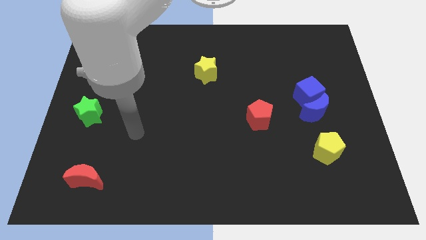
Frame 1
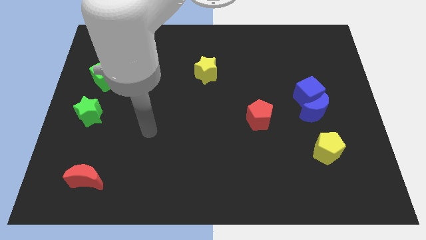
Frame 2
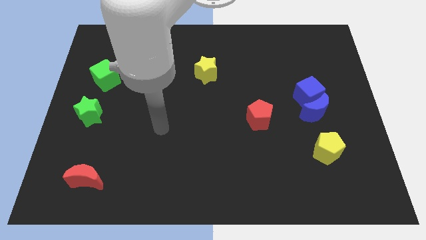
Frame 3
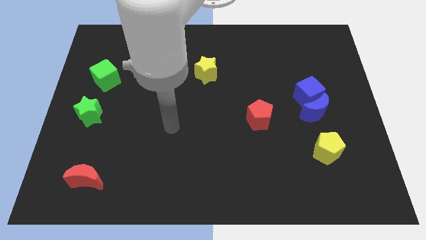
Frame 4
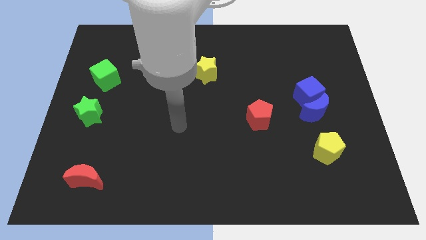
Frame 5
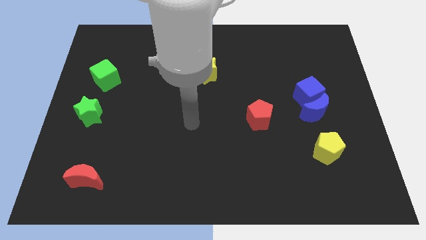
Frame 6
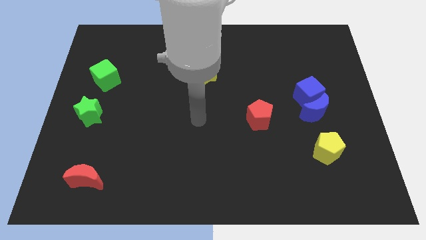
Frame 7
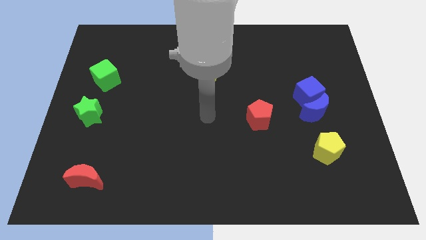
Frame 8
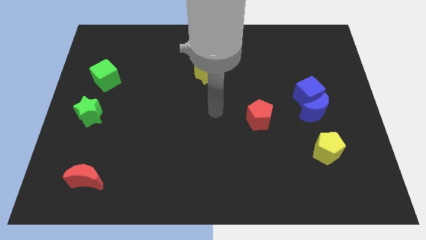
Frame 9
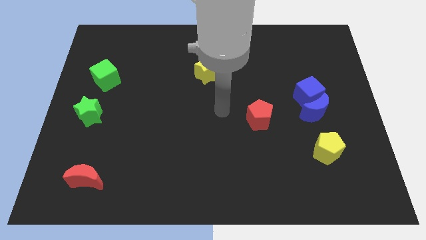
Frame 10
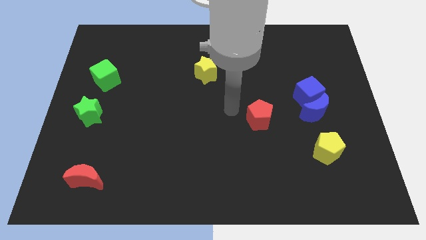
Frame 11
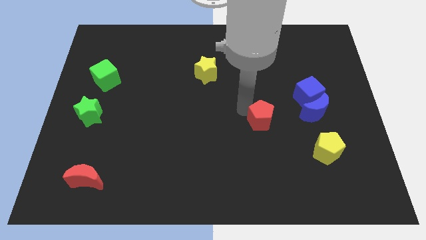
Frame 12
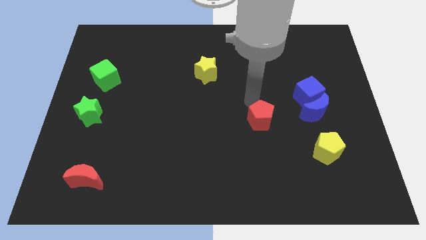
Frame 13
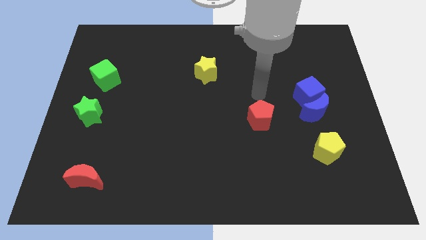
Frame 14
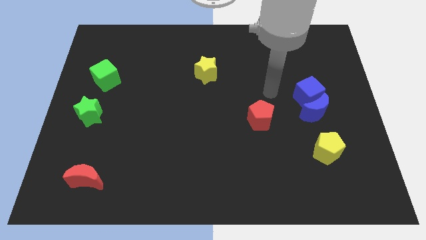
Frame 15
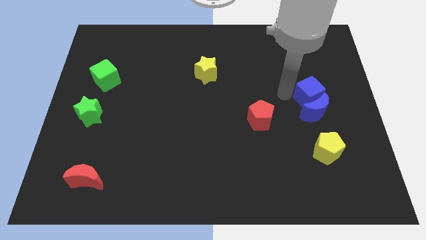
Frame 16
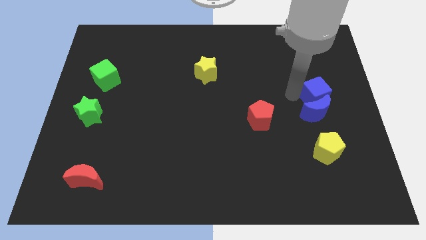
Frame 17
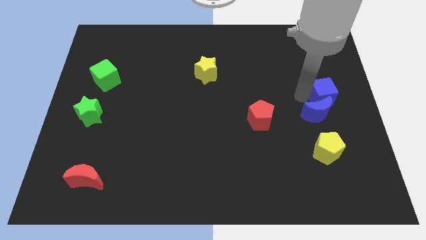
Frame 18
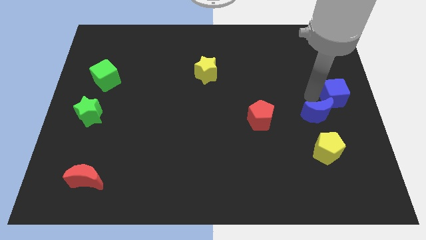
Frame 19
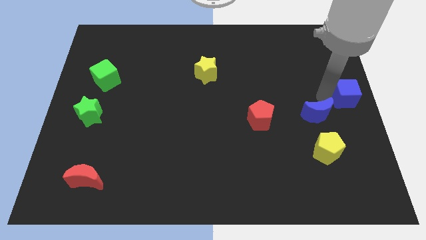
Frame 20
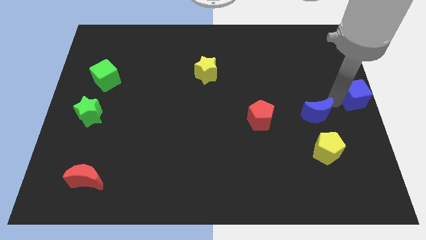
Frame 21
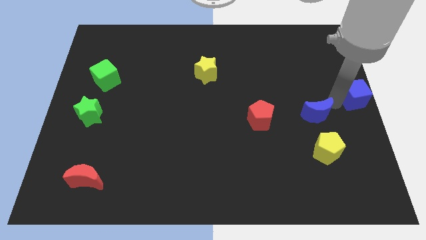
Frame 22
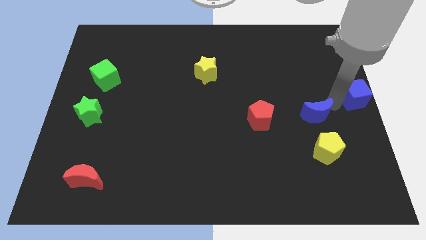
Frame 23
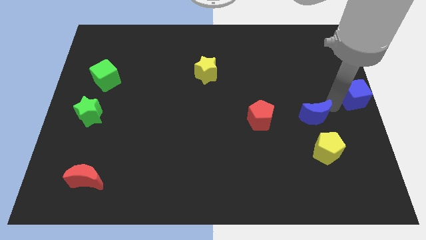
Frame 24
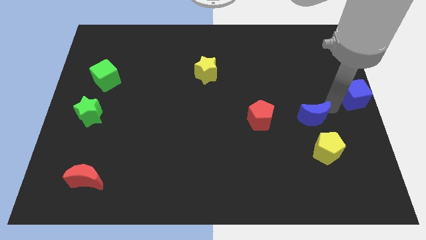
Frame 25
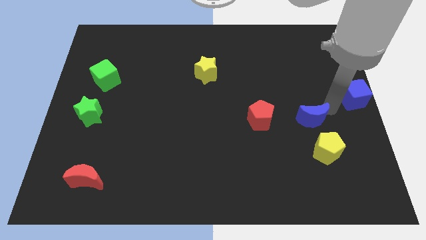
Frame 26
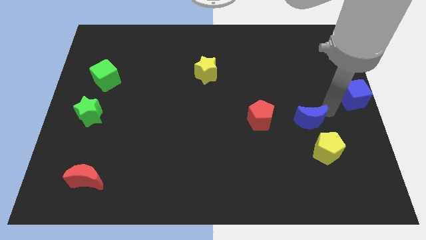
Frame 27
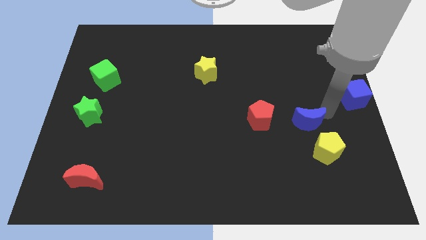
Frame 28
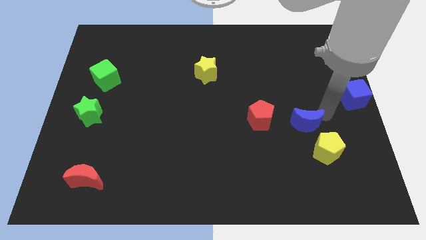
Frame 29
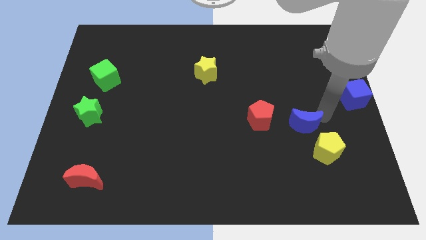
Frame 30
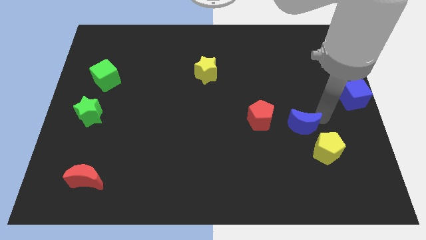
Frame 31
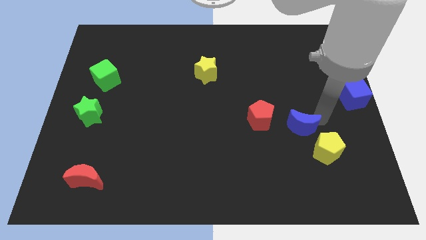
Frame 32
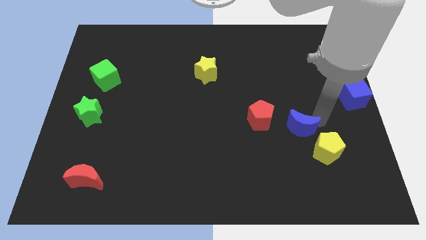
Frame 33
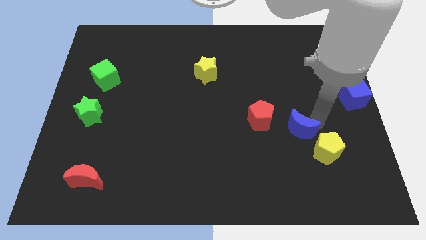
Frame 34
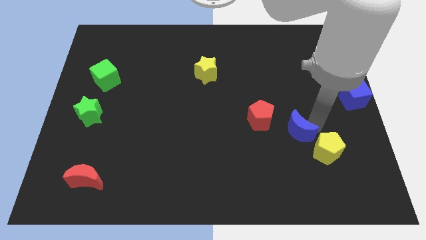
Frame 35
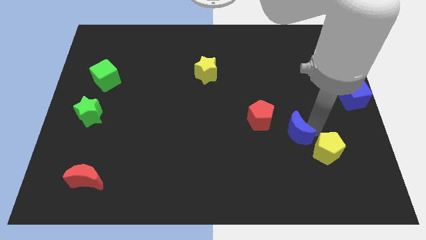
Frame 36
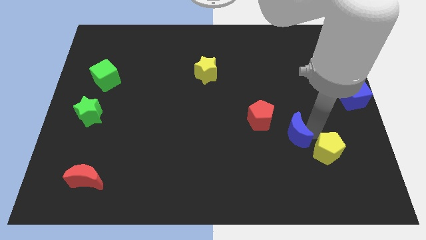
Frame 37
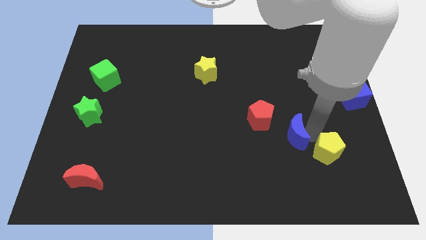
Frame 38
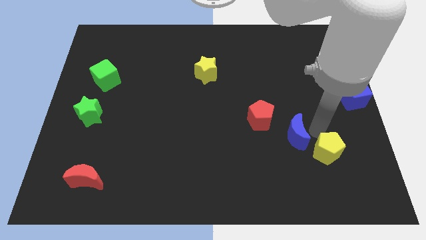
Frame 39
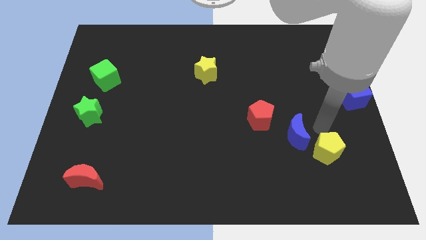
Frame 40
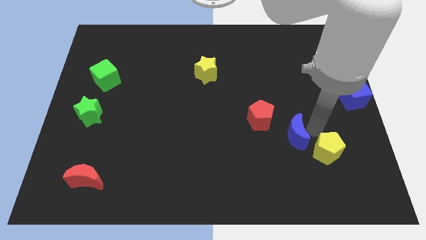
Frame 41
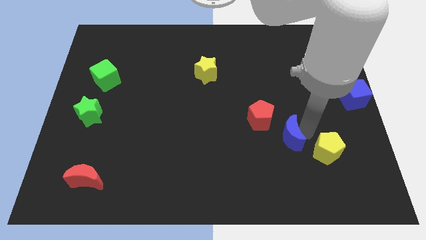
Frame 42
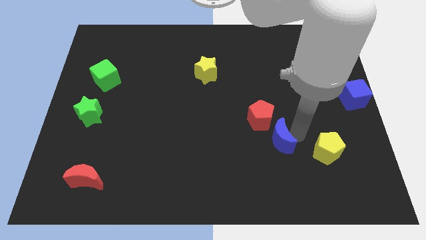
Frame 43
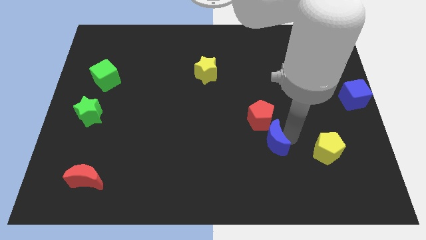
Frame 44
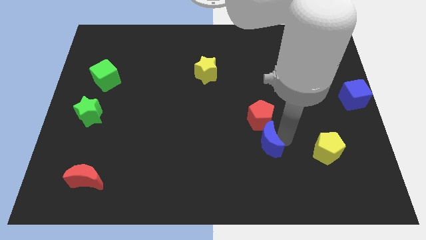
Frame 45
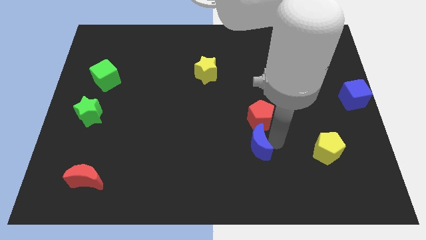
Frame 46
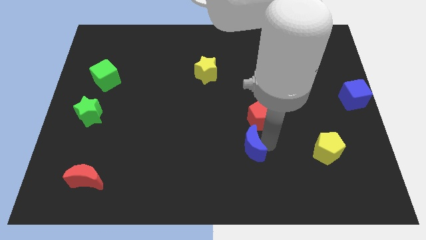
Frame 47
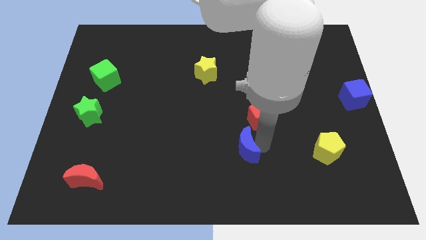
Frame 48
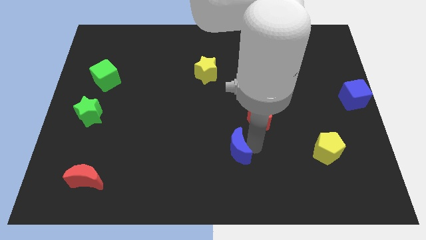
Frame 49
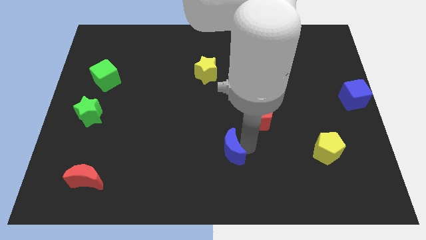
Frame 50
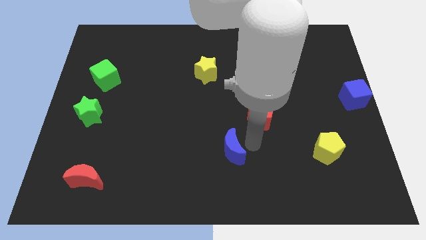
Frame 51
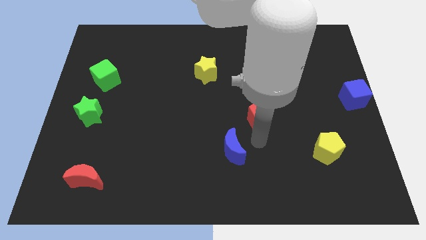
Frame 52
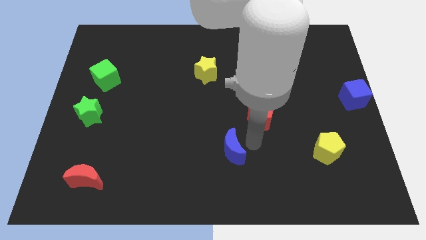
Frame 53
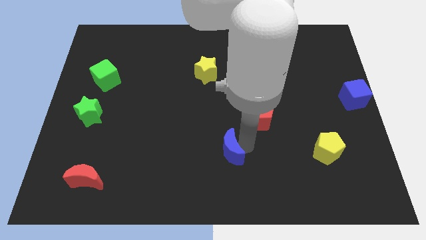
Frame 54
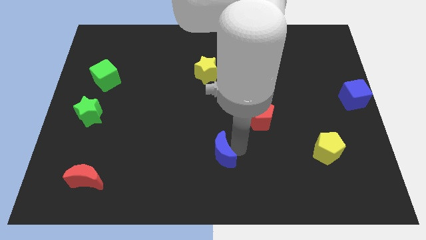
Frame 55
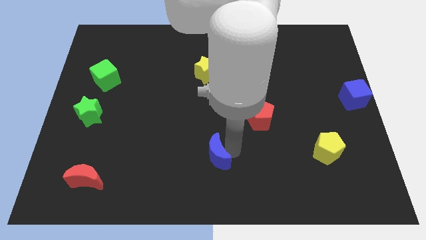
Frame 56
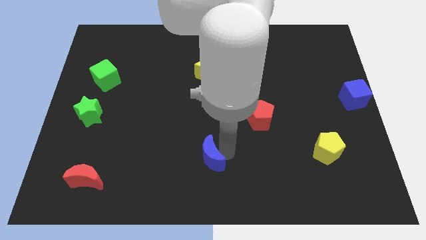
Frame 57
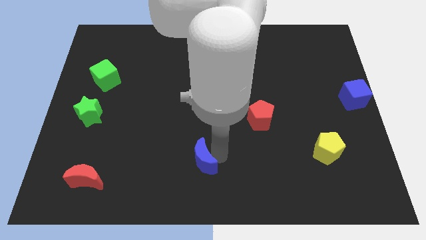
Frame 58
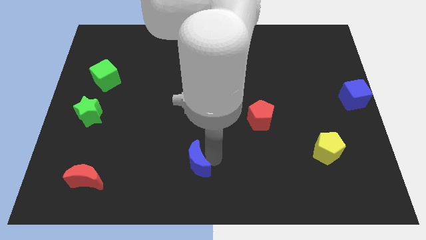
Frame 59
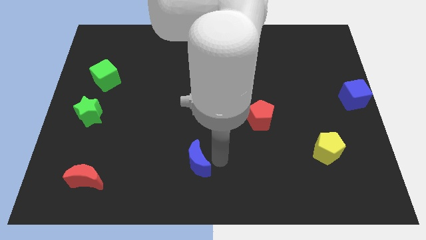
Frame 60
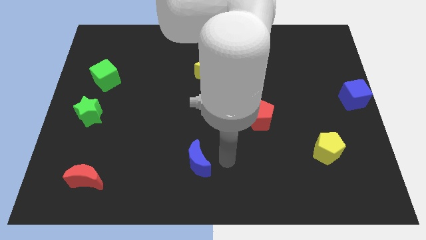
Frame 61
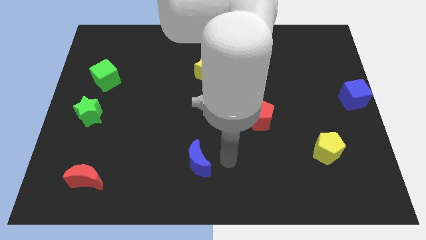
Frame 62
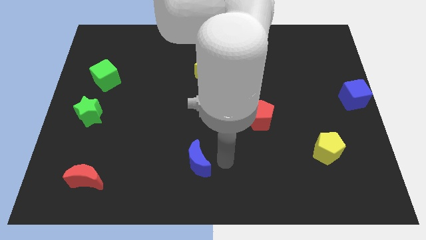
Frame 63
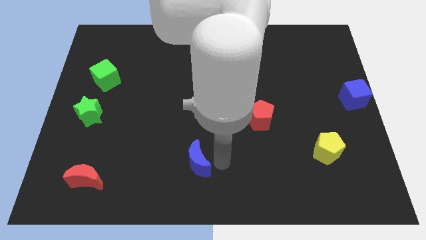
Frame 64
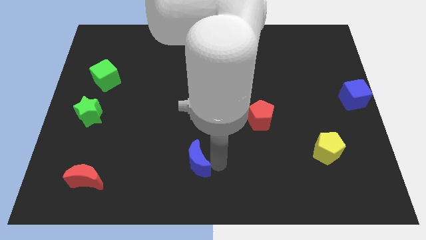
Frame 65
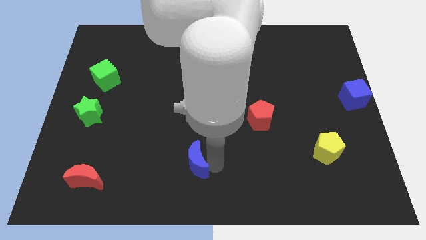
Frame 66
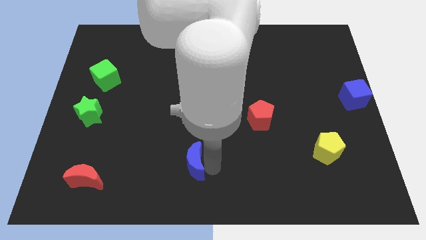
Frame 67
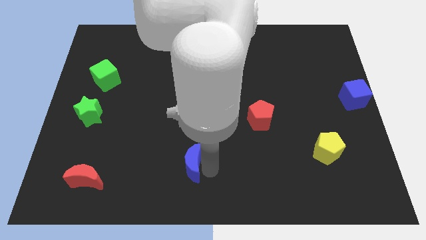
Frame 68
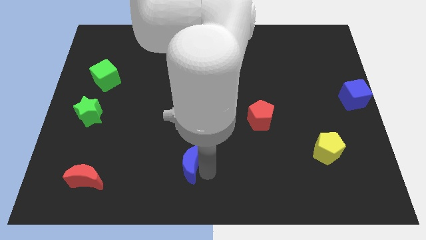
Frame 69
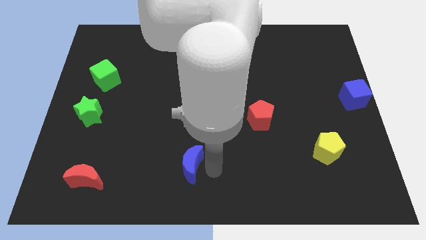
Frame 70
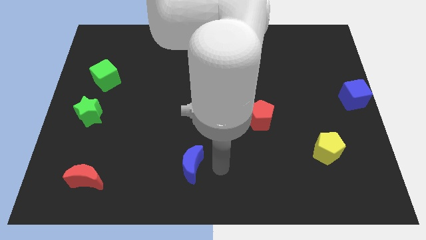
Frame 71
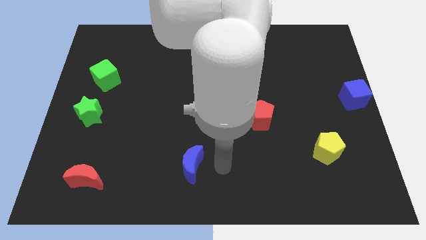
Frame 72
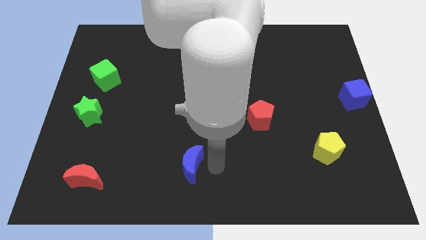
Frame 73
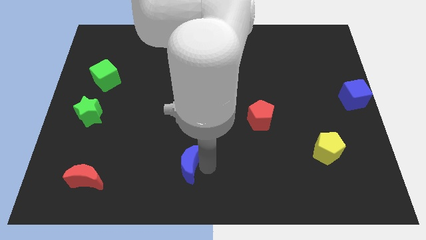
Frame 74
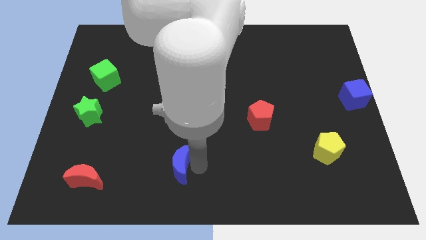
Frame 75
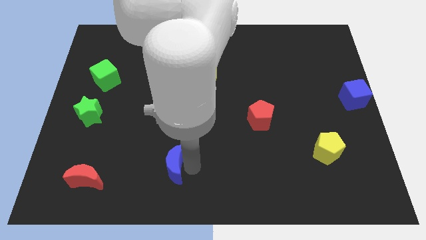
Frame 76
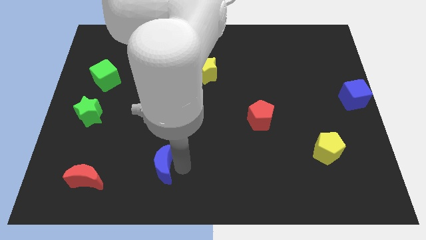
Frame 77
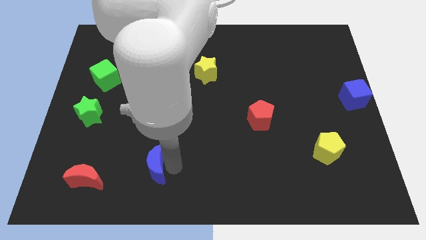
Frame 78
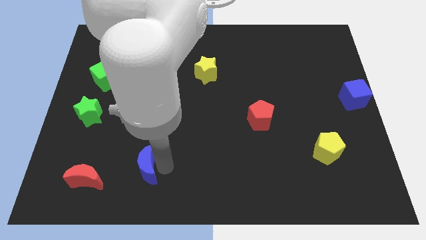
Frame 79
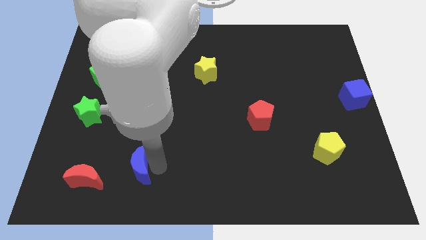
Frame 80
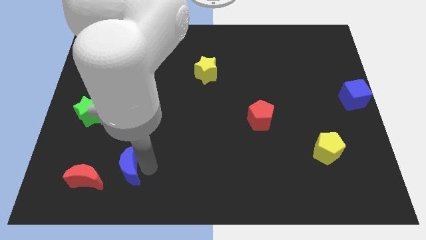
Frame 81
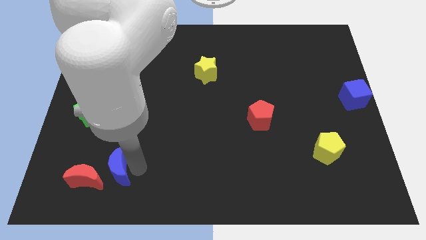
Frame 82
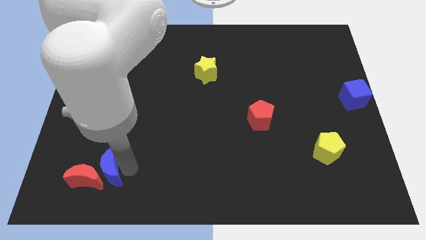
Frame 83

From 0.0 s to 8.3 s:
put the blue moon towards the red moon
